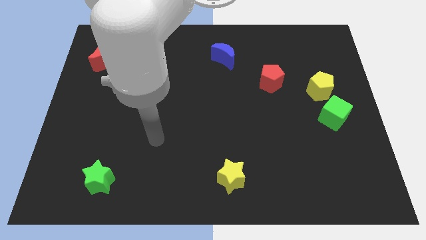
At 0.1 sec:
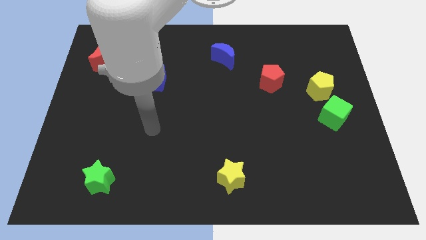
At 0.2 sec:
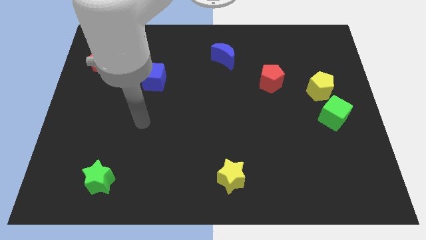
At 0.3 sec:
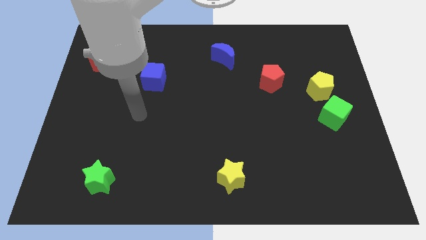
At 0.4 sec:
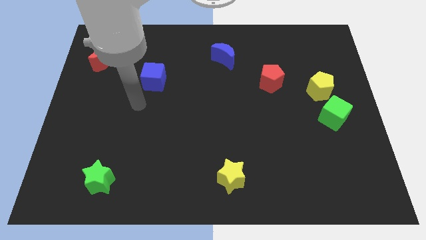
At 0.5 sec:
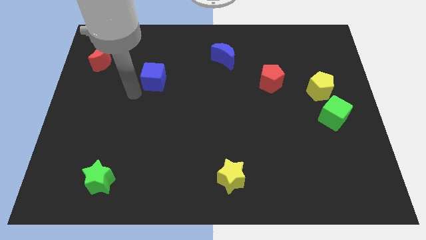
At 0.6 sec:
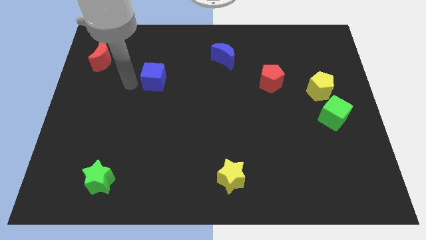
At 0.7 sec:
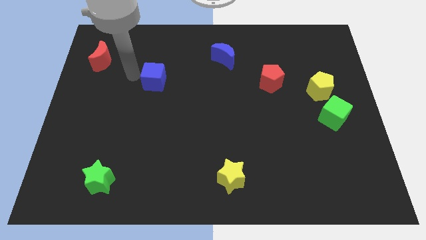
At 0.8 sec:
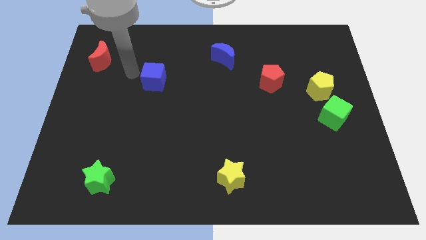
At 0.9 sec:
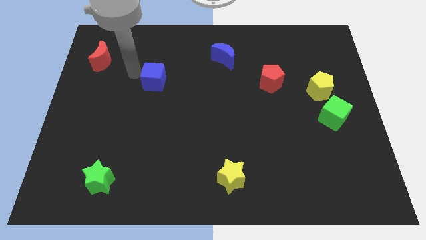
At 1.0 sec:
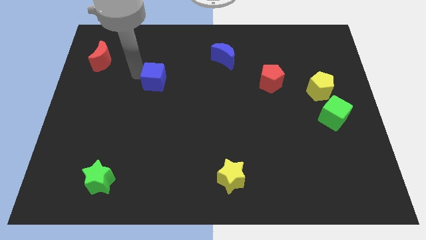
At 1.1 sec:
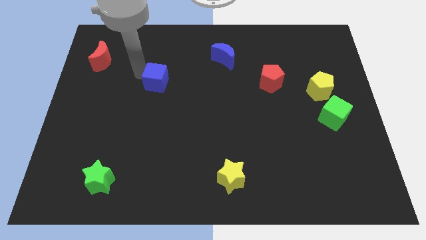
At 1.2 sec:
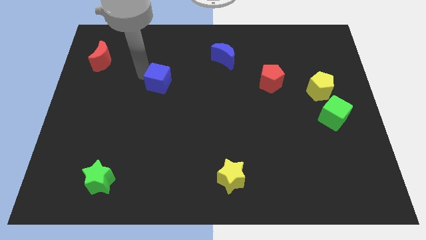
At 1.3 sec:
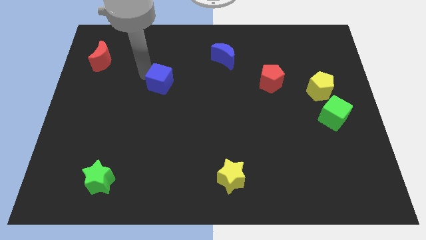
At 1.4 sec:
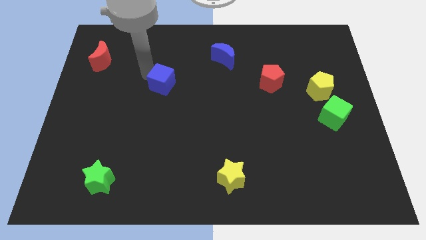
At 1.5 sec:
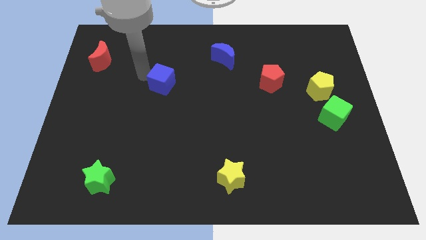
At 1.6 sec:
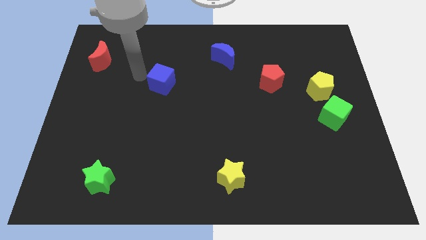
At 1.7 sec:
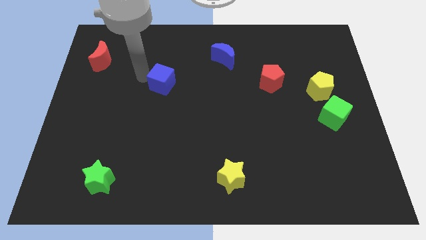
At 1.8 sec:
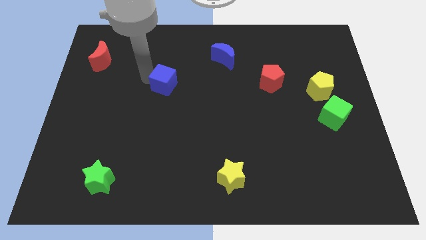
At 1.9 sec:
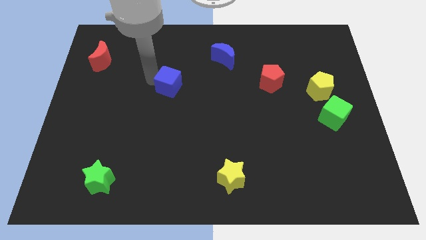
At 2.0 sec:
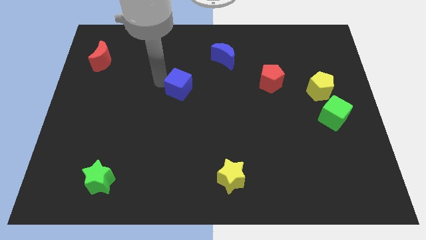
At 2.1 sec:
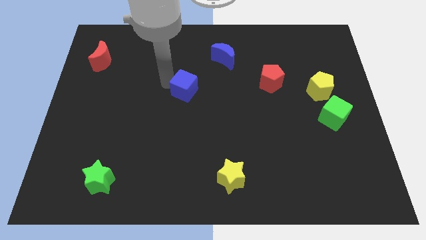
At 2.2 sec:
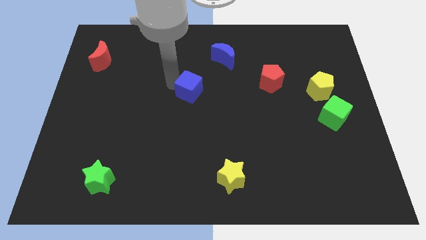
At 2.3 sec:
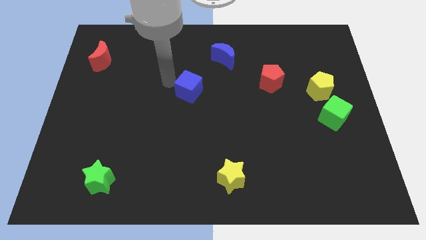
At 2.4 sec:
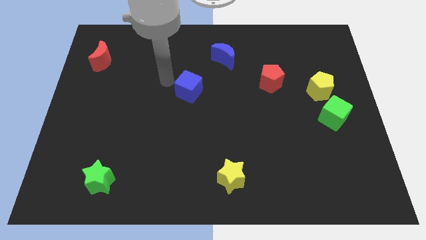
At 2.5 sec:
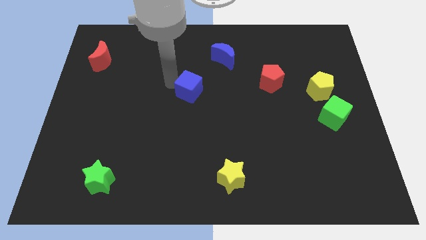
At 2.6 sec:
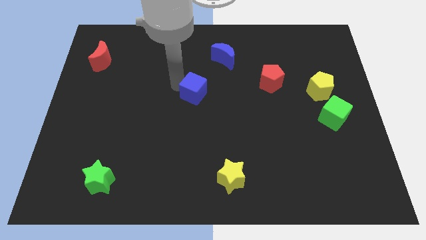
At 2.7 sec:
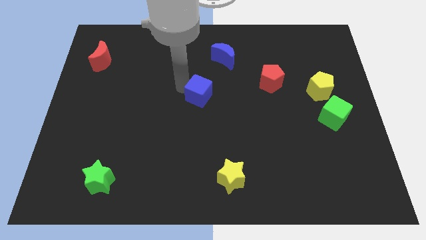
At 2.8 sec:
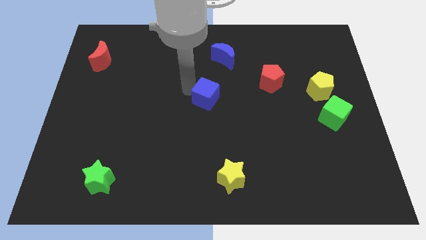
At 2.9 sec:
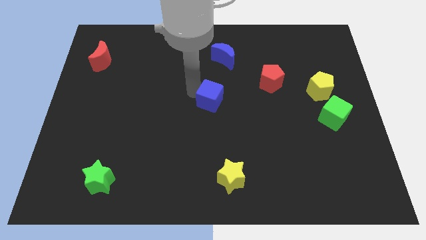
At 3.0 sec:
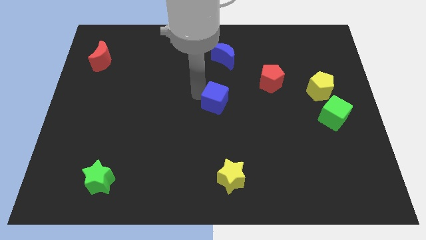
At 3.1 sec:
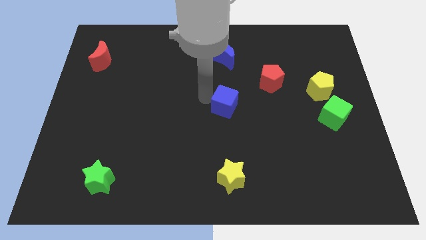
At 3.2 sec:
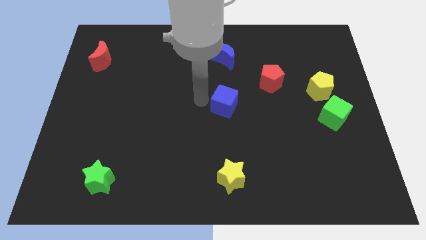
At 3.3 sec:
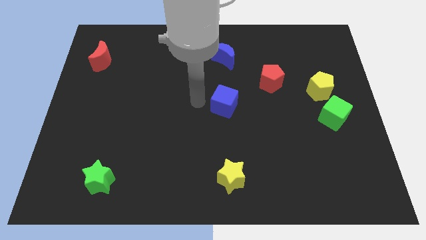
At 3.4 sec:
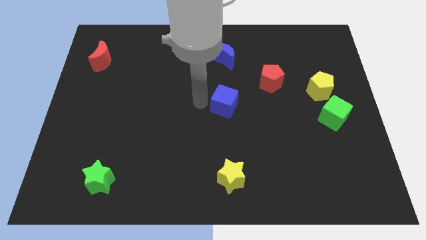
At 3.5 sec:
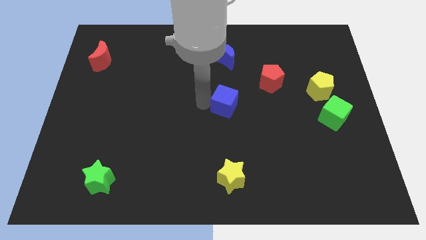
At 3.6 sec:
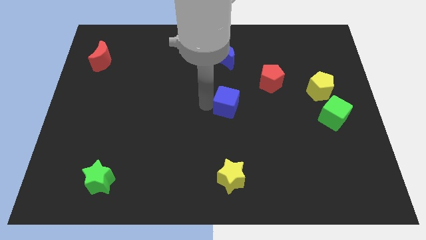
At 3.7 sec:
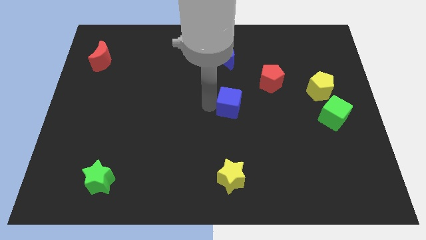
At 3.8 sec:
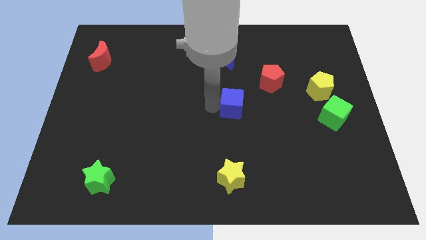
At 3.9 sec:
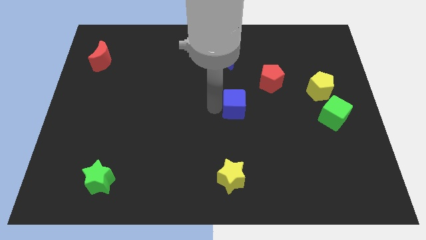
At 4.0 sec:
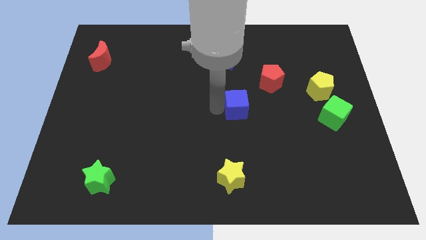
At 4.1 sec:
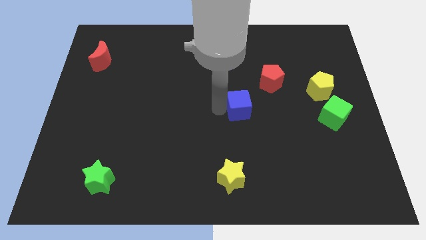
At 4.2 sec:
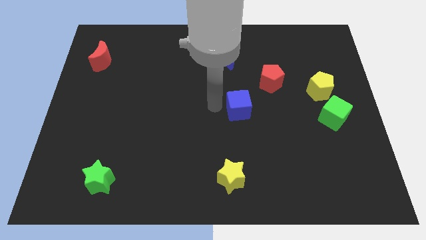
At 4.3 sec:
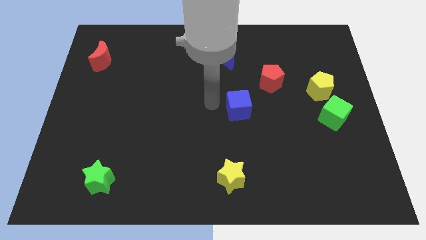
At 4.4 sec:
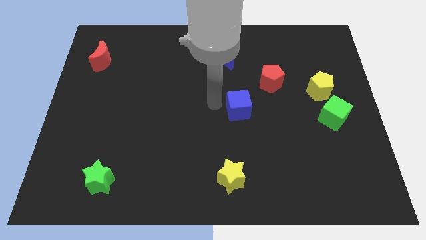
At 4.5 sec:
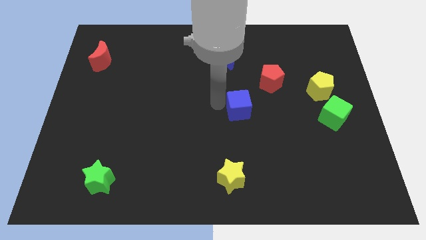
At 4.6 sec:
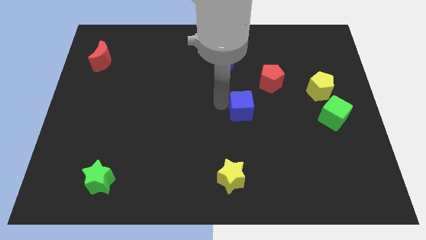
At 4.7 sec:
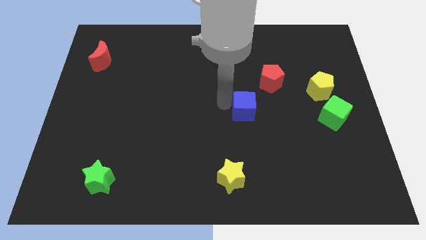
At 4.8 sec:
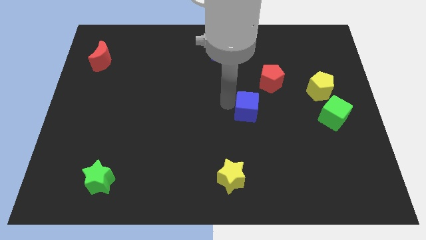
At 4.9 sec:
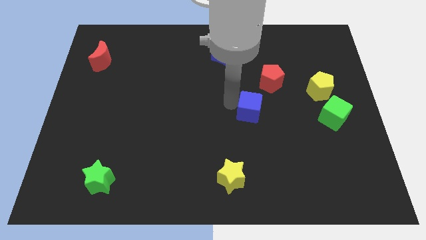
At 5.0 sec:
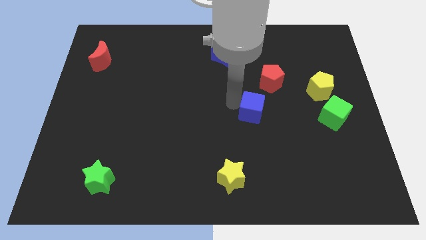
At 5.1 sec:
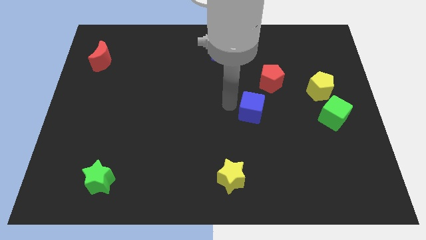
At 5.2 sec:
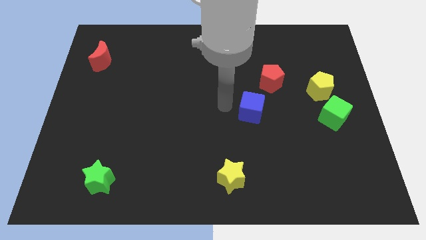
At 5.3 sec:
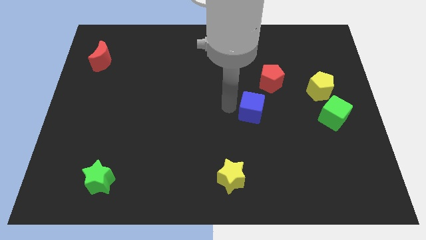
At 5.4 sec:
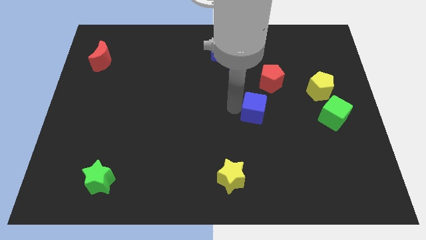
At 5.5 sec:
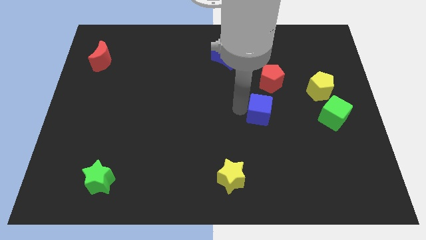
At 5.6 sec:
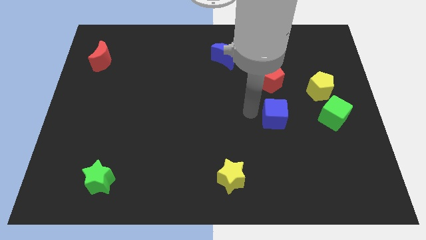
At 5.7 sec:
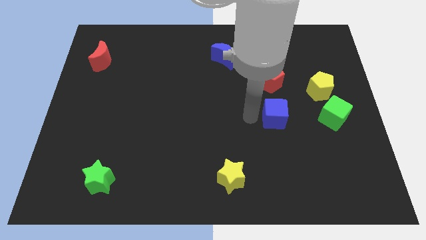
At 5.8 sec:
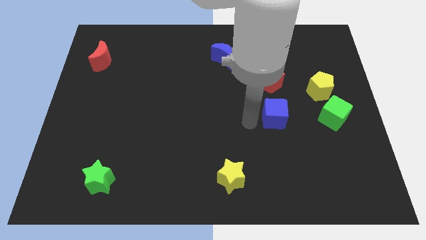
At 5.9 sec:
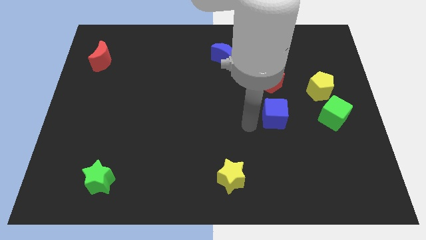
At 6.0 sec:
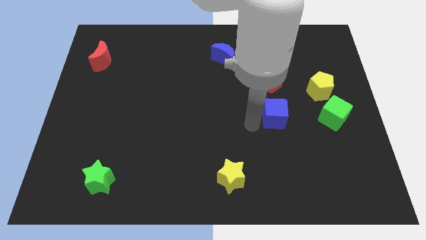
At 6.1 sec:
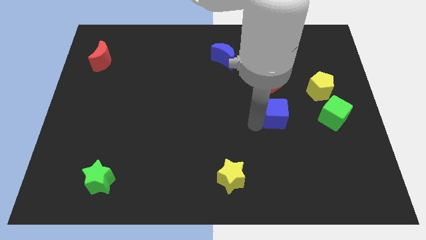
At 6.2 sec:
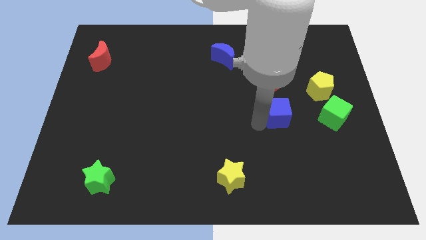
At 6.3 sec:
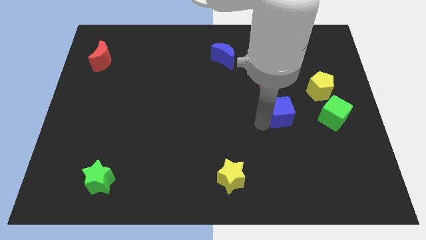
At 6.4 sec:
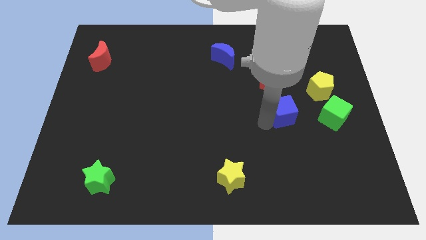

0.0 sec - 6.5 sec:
move the blue cube diagonally down and to the left of the yellow pentagon

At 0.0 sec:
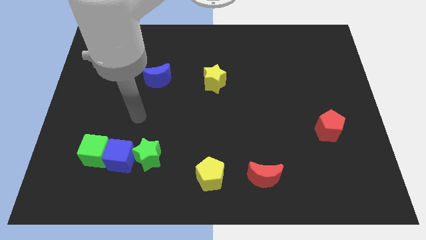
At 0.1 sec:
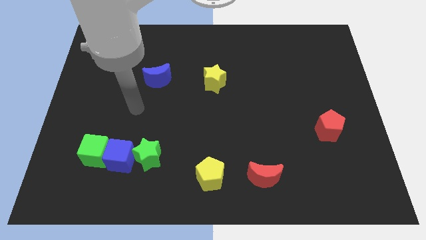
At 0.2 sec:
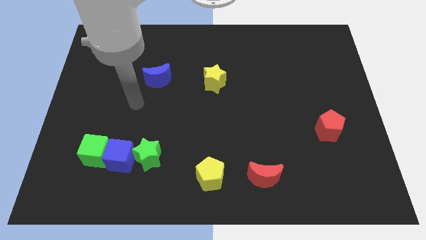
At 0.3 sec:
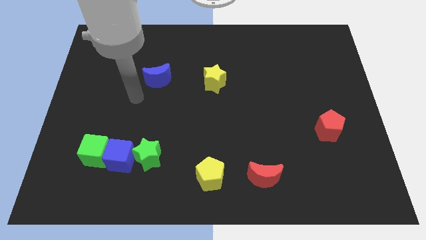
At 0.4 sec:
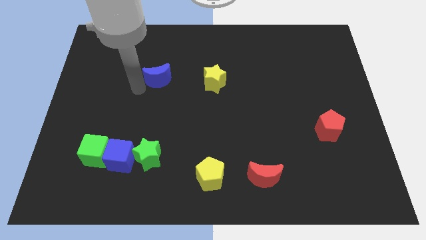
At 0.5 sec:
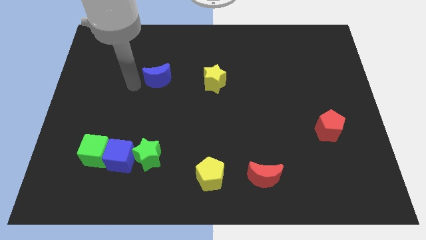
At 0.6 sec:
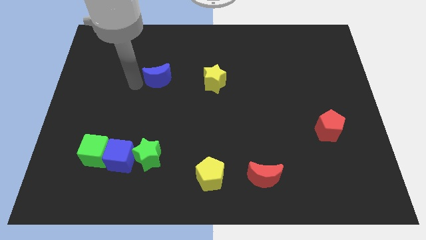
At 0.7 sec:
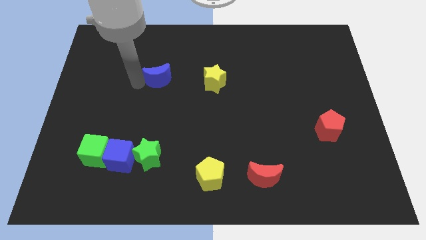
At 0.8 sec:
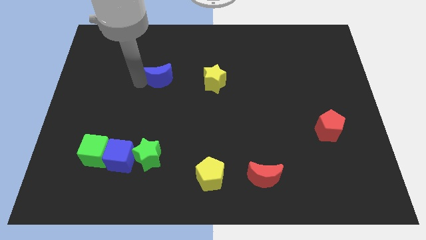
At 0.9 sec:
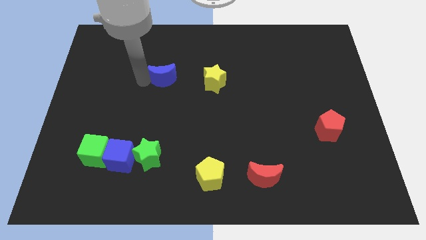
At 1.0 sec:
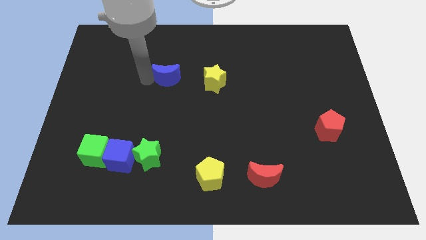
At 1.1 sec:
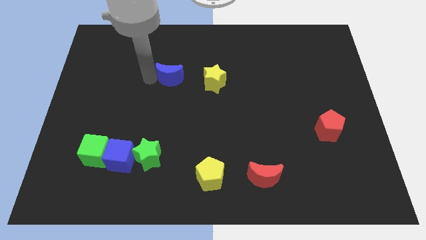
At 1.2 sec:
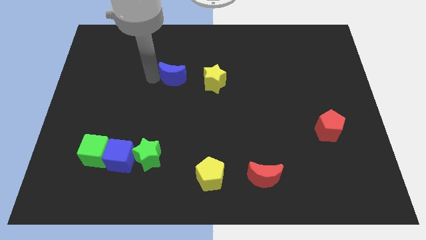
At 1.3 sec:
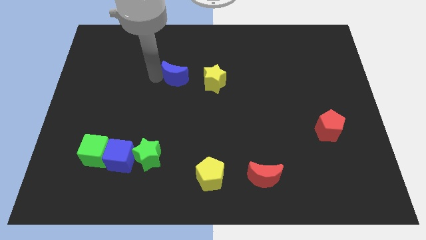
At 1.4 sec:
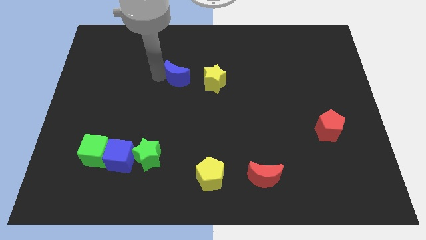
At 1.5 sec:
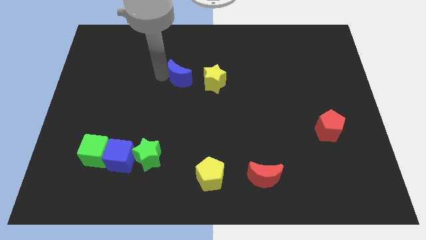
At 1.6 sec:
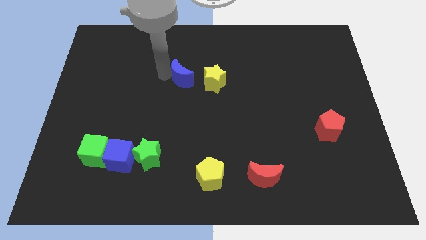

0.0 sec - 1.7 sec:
move the blue moon to the top left side of the yellow star
